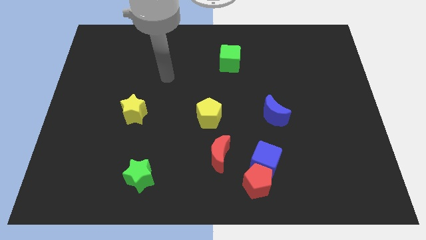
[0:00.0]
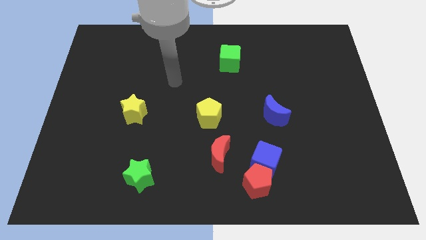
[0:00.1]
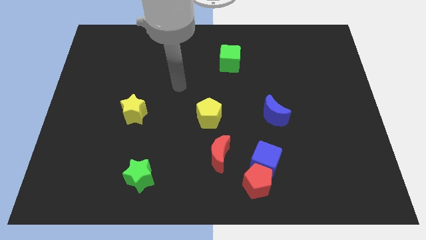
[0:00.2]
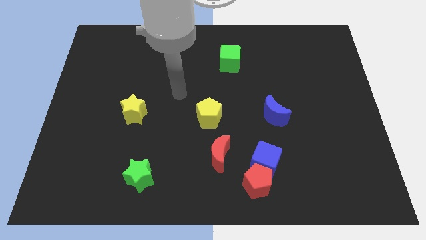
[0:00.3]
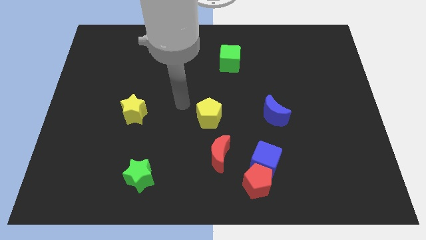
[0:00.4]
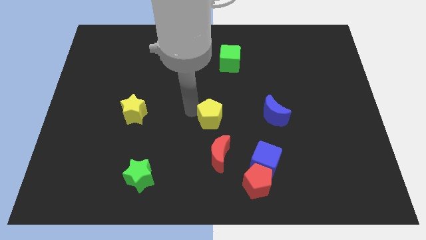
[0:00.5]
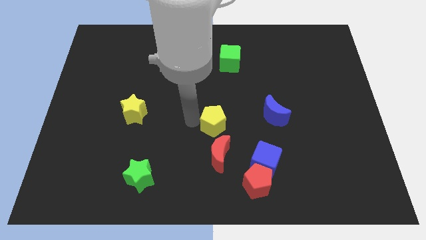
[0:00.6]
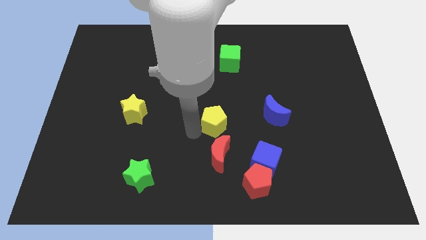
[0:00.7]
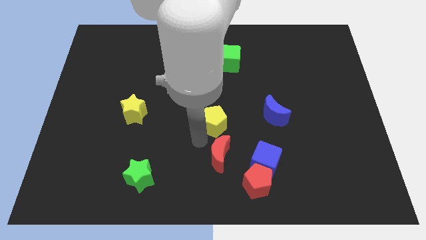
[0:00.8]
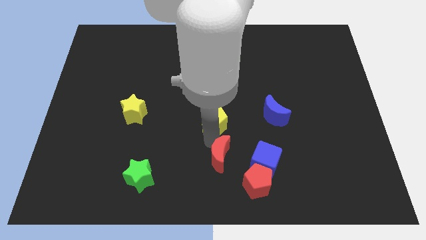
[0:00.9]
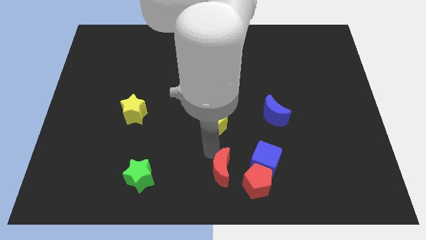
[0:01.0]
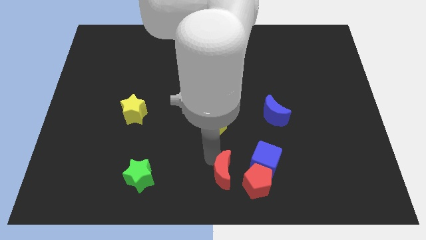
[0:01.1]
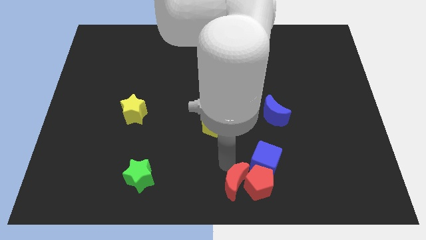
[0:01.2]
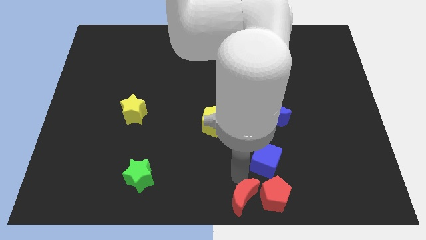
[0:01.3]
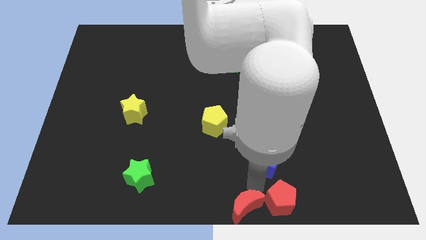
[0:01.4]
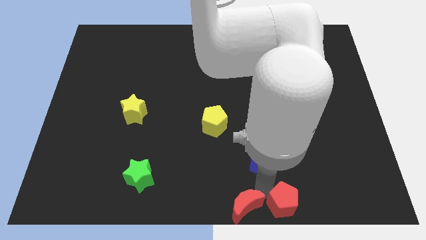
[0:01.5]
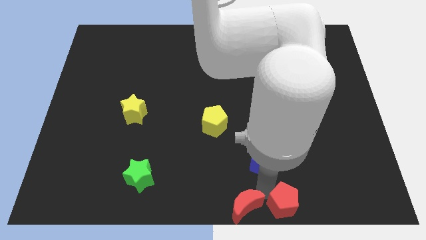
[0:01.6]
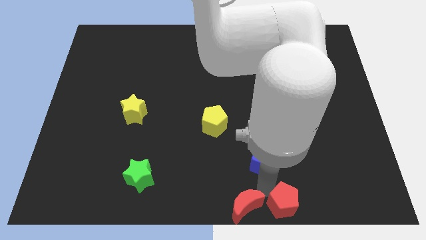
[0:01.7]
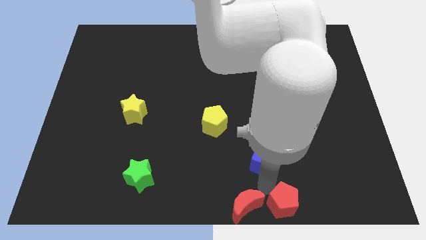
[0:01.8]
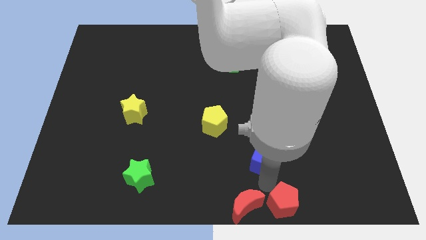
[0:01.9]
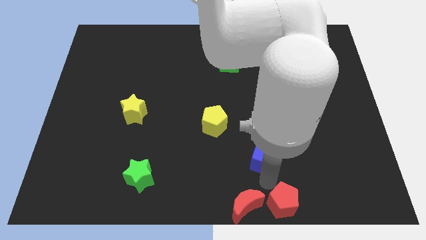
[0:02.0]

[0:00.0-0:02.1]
separate the blue cube from the red pentagon and red moon

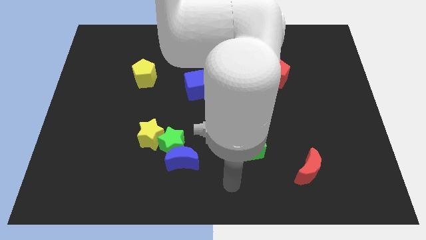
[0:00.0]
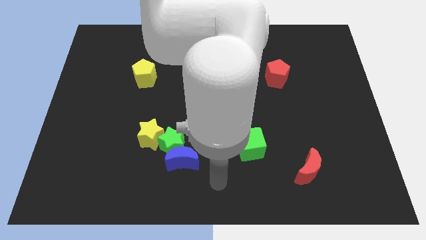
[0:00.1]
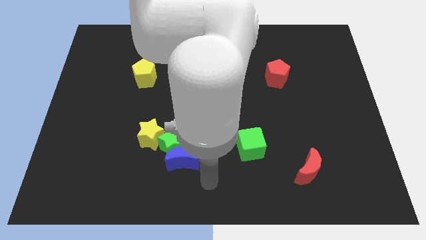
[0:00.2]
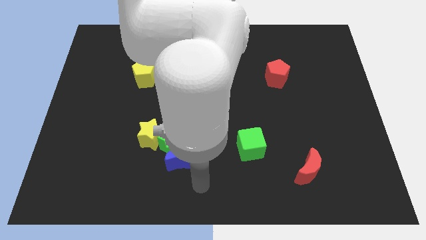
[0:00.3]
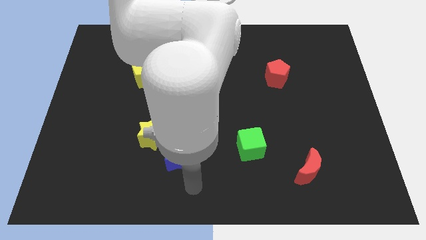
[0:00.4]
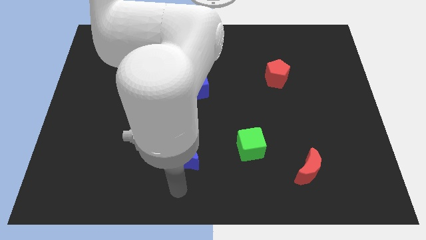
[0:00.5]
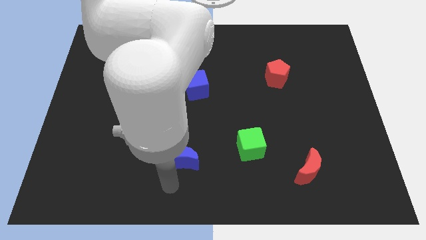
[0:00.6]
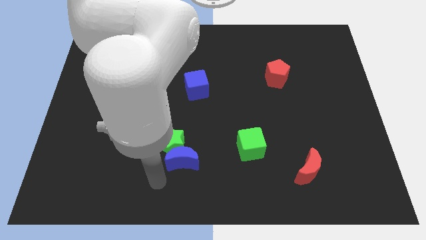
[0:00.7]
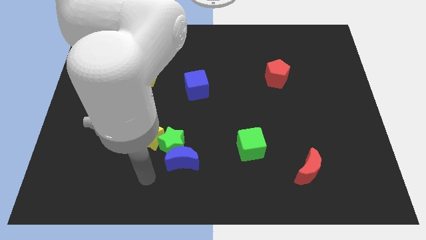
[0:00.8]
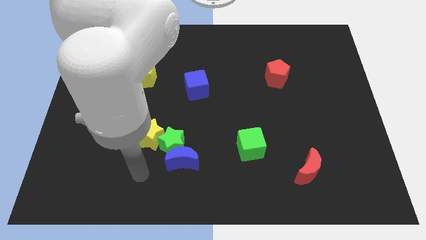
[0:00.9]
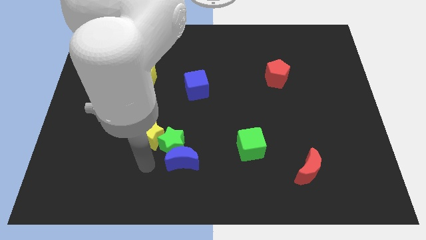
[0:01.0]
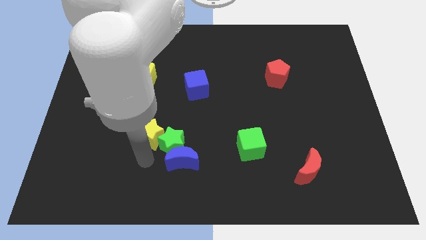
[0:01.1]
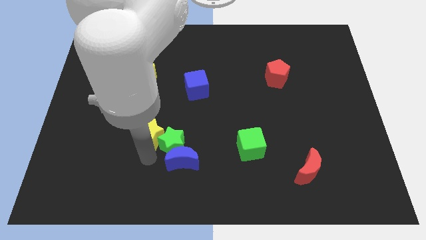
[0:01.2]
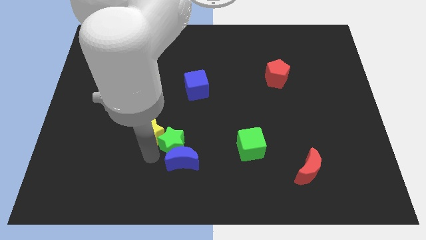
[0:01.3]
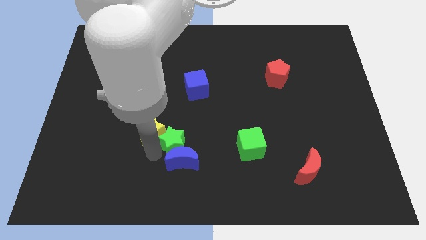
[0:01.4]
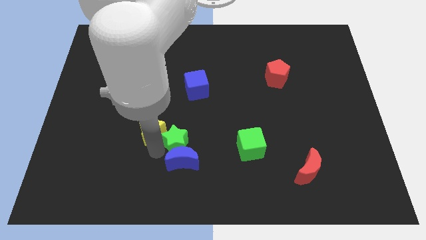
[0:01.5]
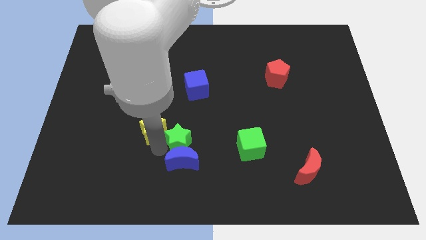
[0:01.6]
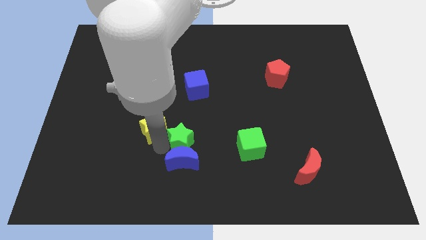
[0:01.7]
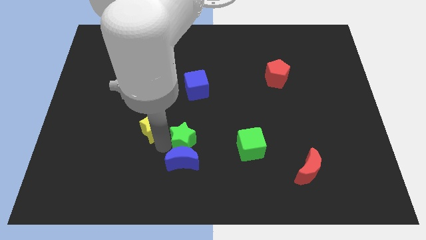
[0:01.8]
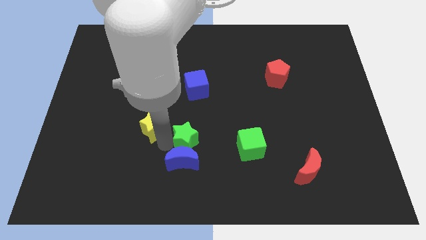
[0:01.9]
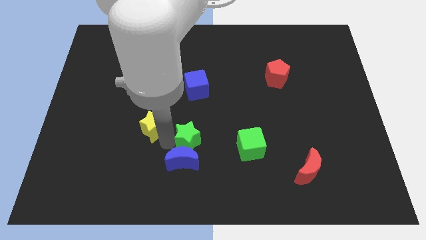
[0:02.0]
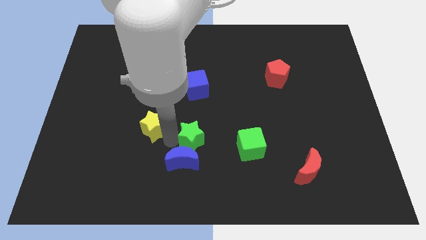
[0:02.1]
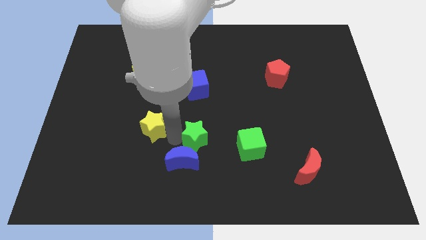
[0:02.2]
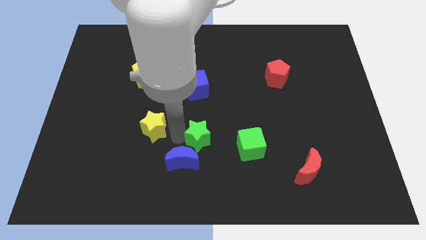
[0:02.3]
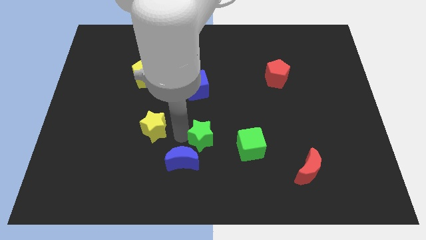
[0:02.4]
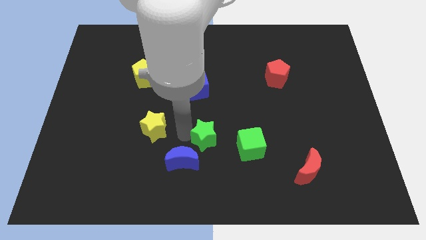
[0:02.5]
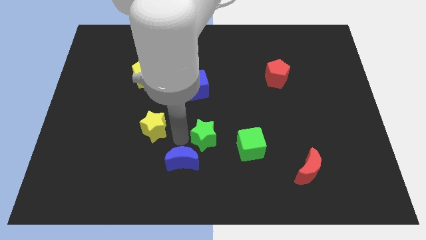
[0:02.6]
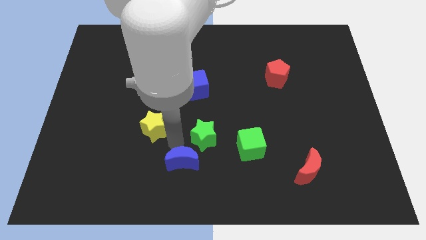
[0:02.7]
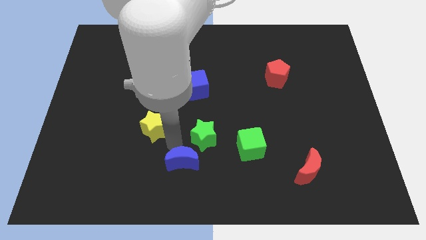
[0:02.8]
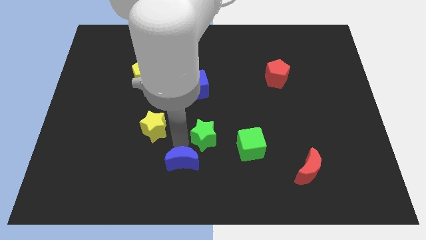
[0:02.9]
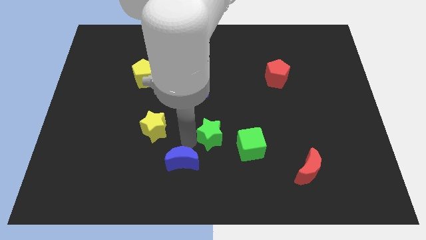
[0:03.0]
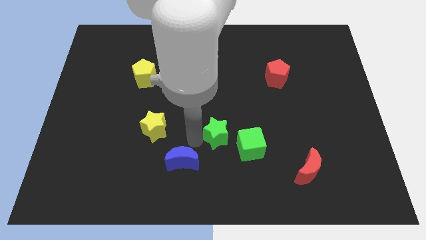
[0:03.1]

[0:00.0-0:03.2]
pull the green star apart from the blue moon and yellow star

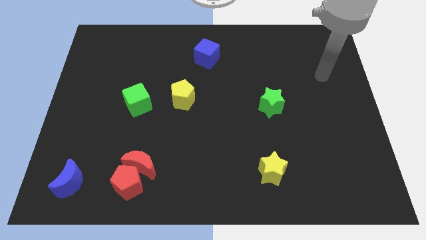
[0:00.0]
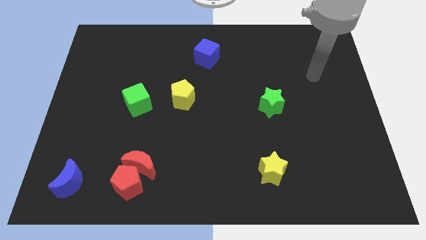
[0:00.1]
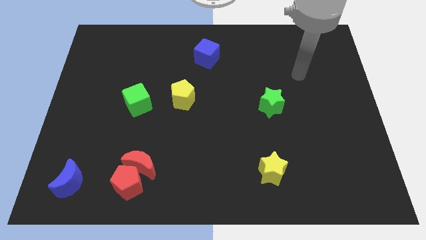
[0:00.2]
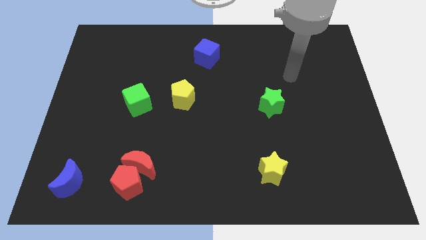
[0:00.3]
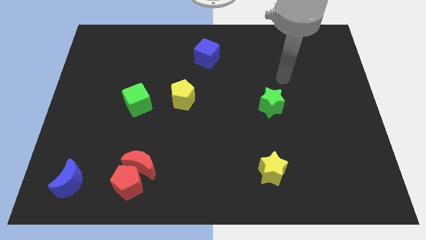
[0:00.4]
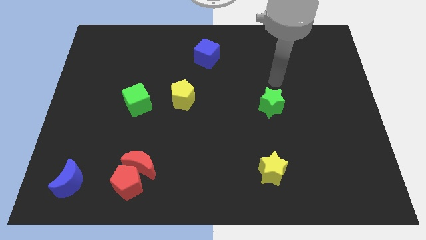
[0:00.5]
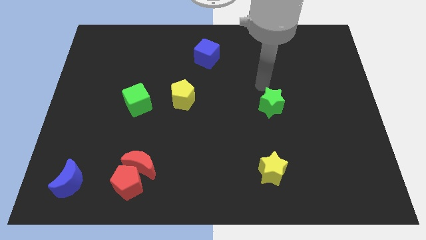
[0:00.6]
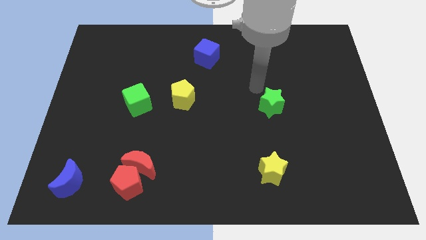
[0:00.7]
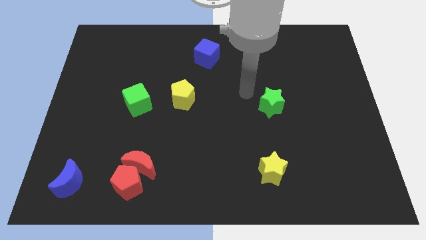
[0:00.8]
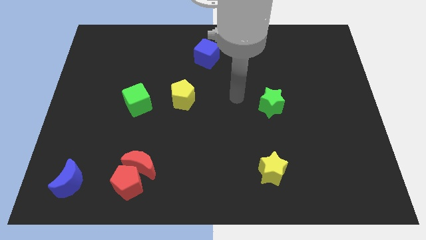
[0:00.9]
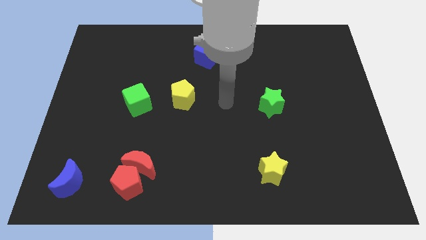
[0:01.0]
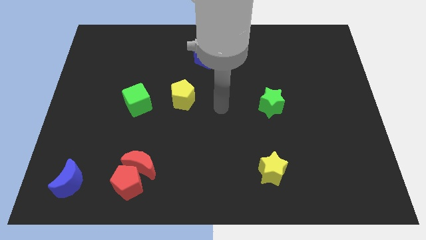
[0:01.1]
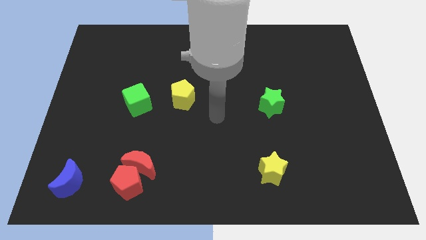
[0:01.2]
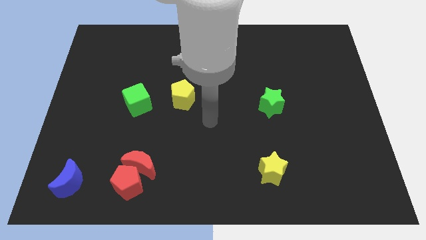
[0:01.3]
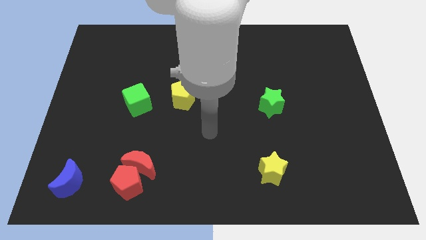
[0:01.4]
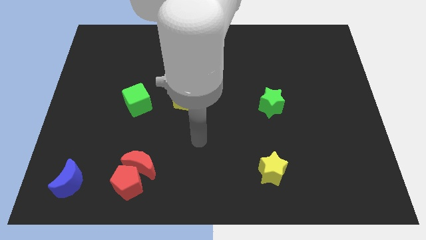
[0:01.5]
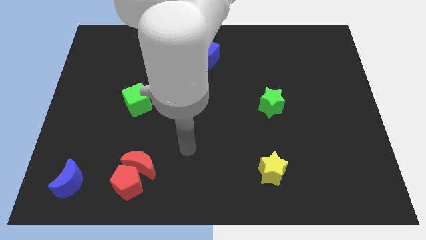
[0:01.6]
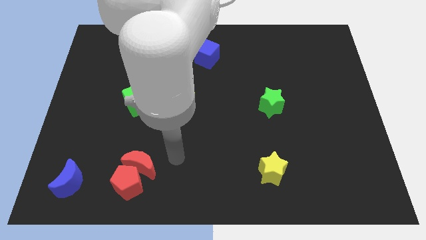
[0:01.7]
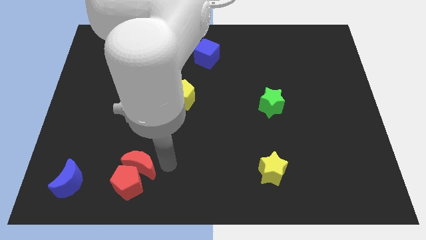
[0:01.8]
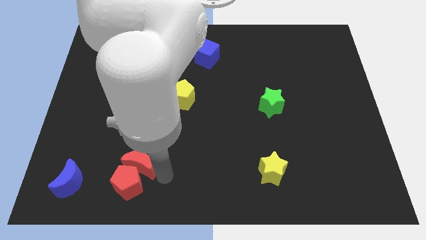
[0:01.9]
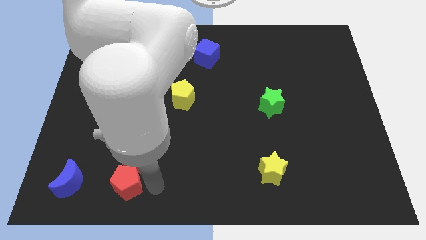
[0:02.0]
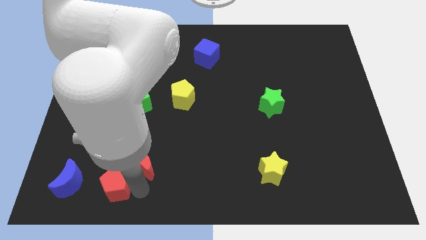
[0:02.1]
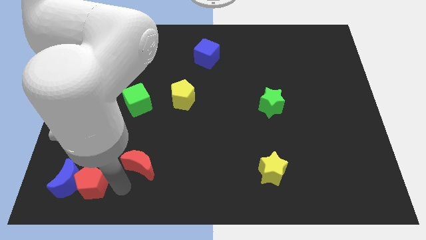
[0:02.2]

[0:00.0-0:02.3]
move the red moon away from the red pentagon

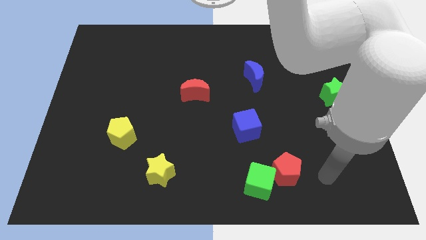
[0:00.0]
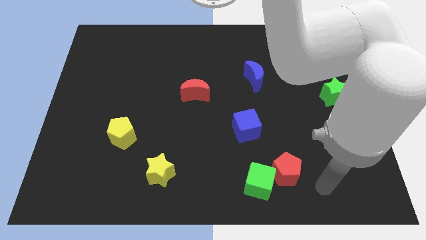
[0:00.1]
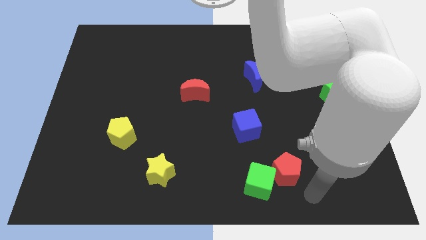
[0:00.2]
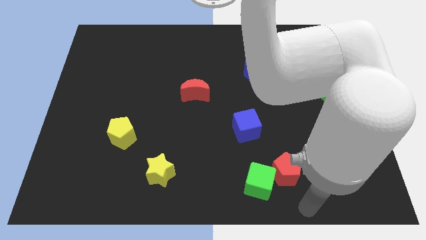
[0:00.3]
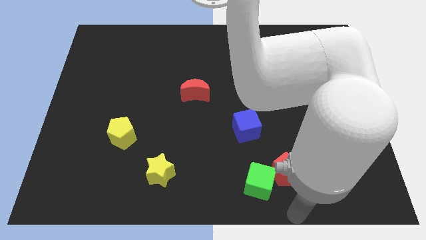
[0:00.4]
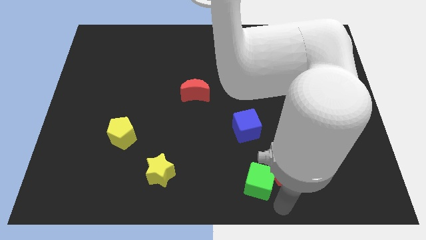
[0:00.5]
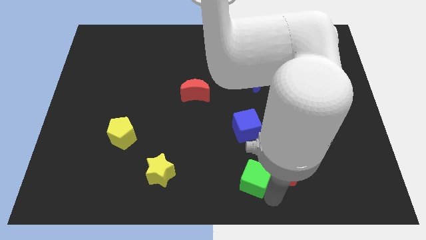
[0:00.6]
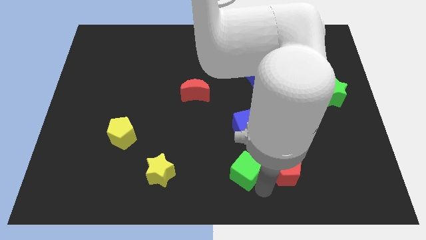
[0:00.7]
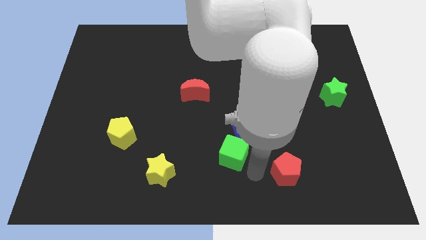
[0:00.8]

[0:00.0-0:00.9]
move the red pentagon away from the green cube

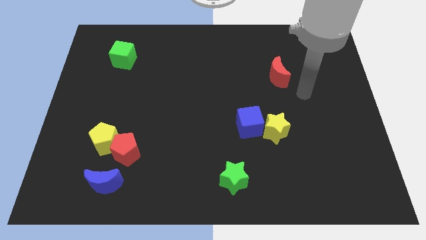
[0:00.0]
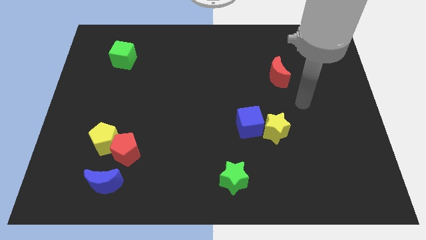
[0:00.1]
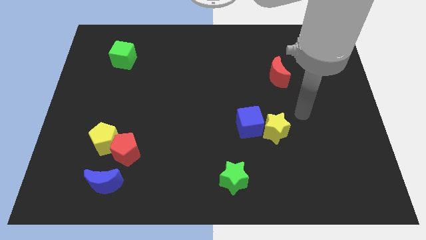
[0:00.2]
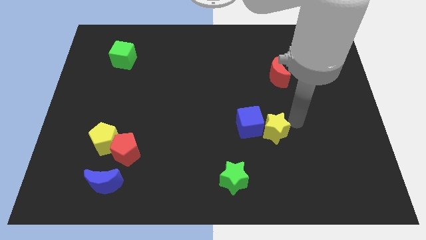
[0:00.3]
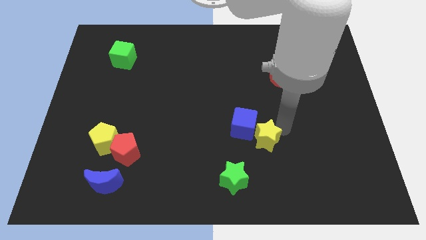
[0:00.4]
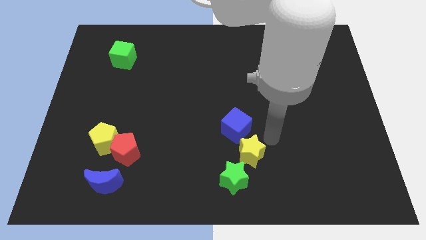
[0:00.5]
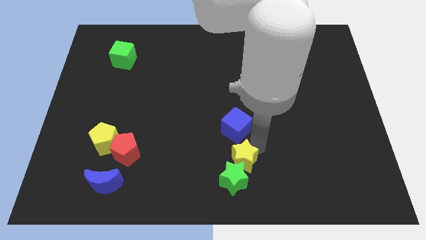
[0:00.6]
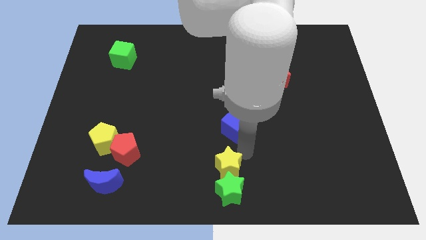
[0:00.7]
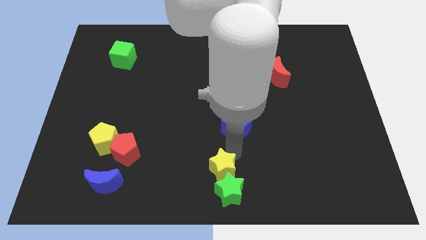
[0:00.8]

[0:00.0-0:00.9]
pull the blue cube apart from the yellow star
